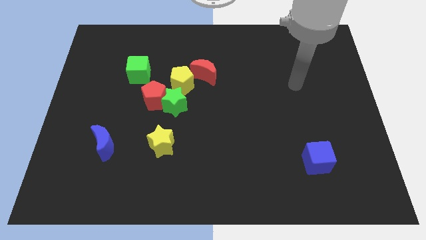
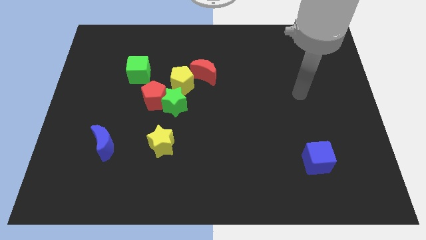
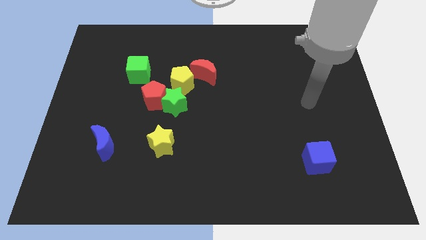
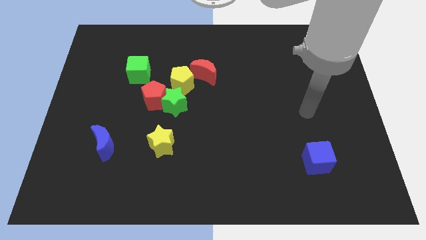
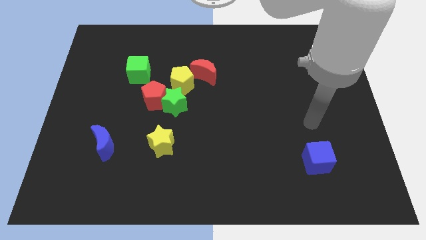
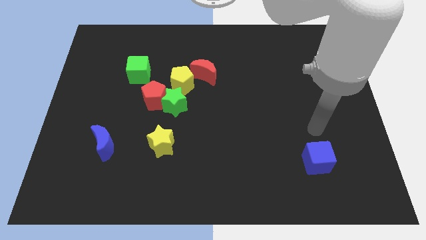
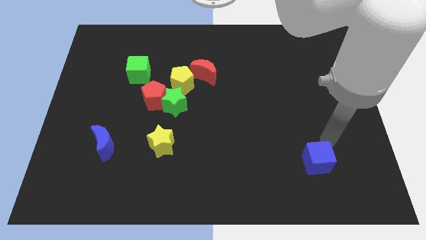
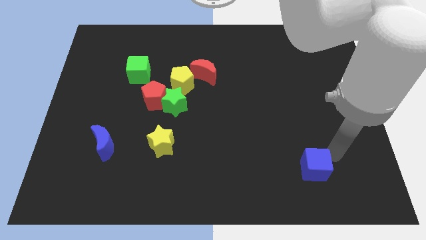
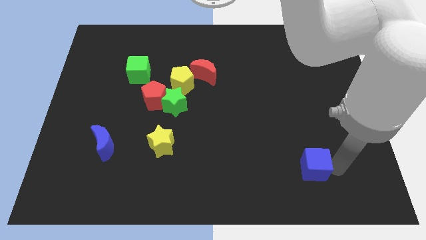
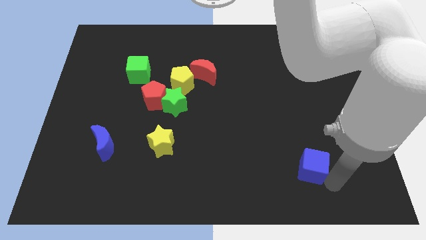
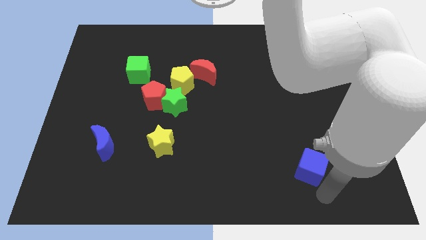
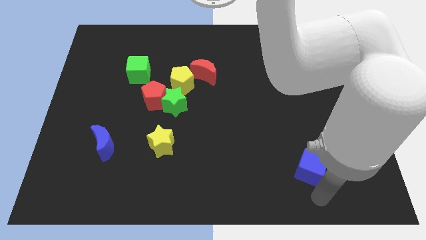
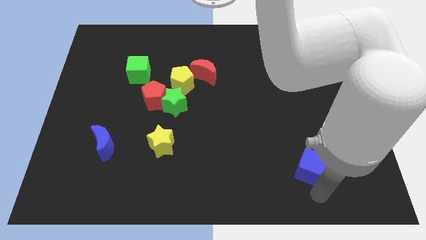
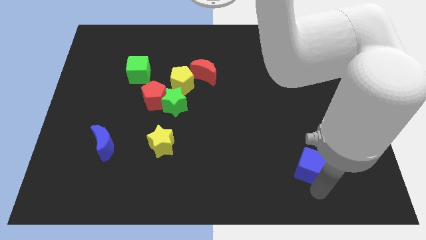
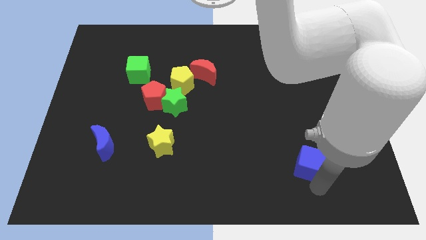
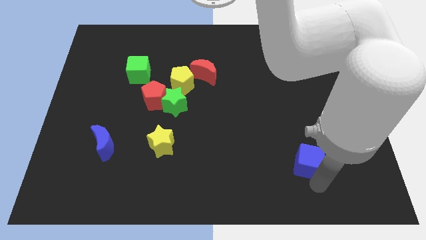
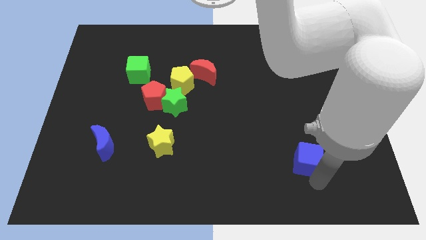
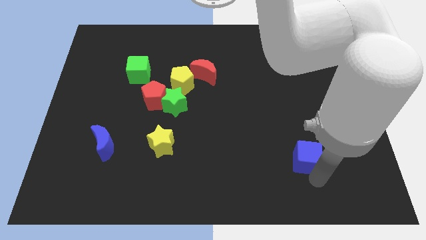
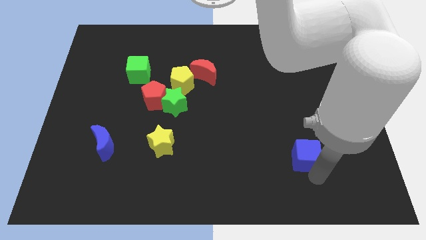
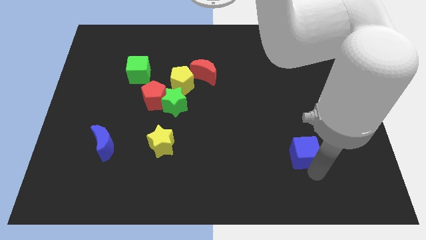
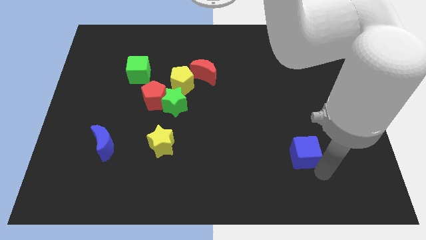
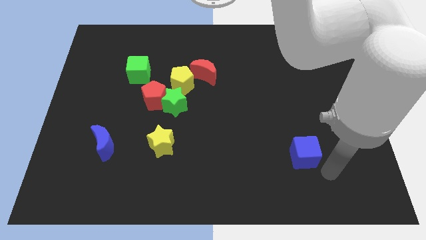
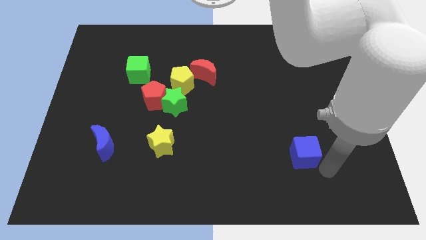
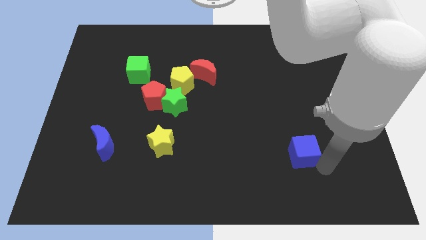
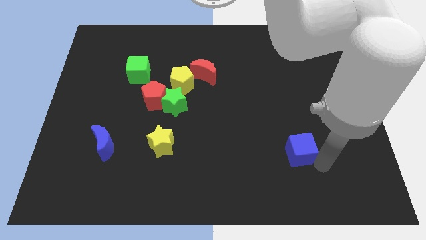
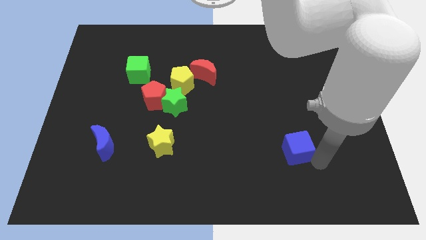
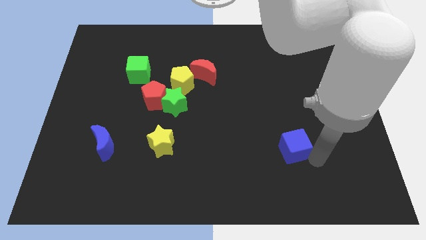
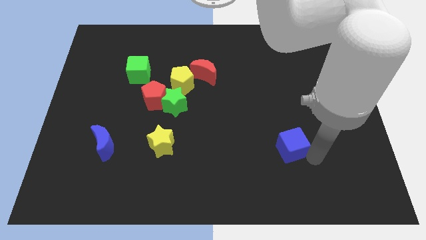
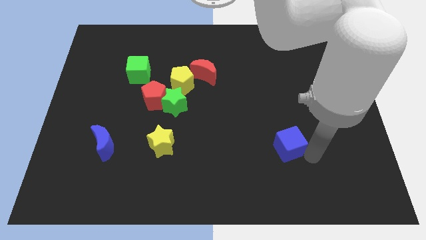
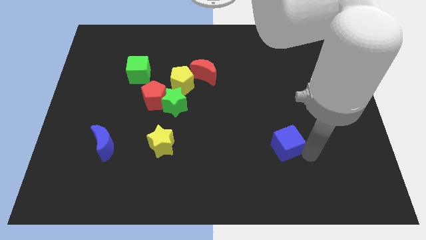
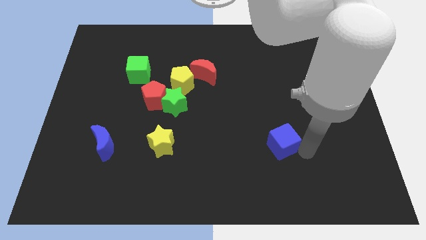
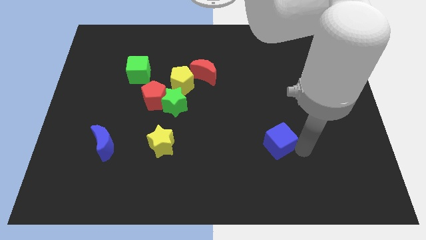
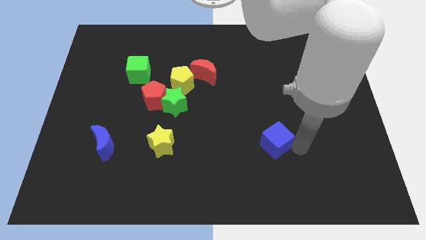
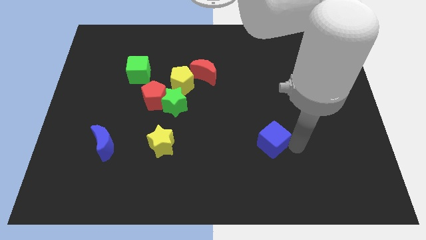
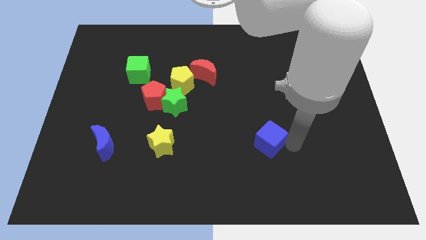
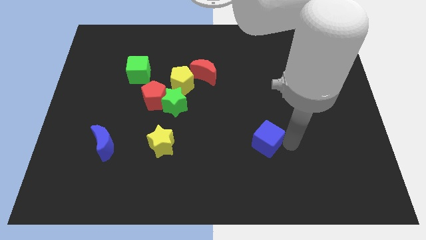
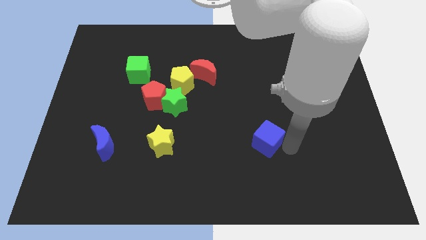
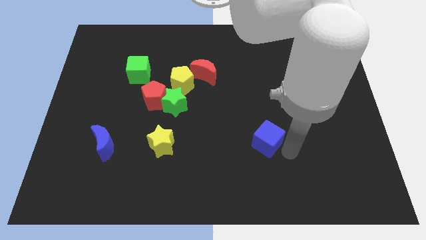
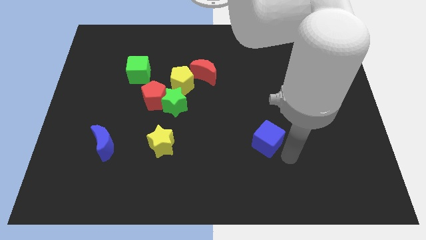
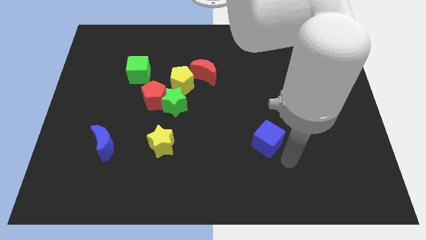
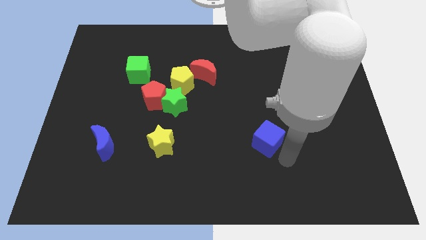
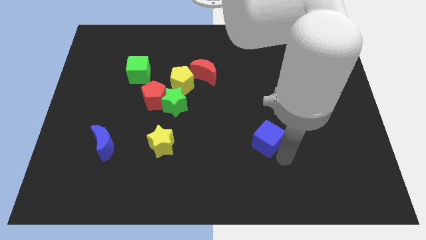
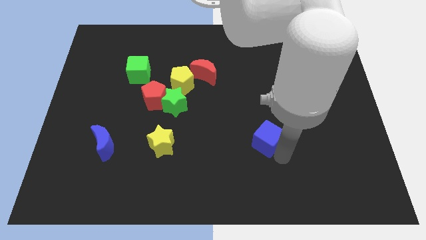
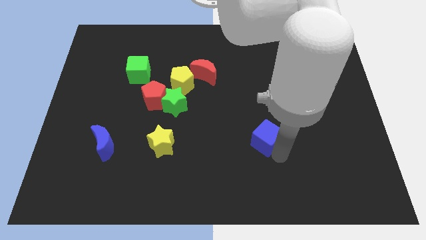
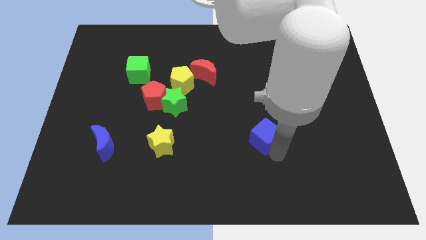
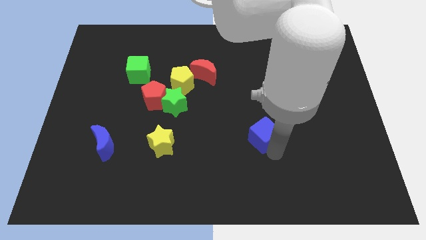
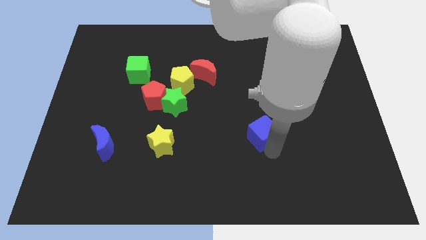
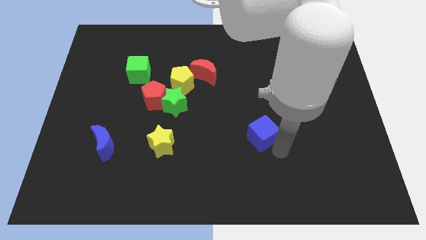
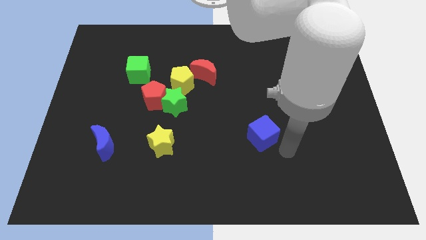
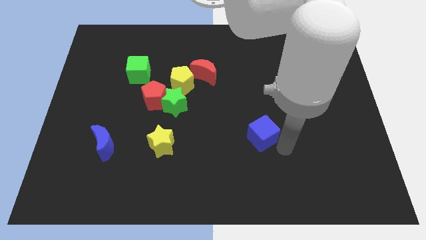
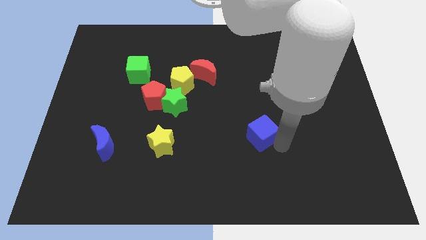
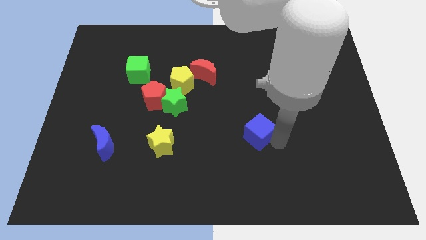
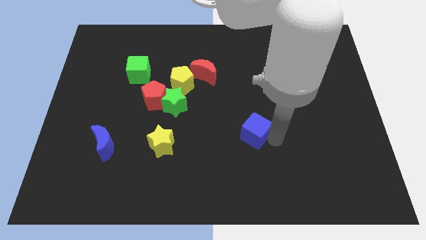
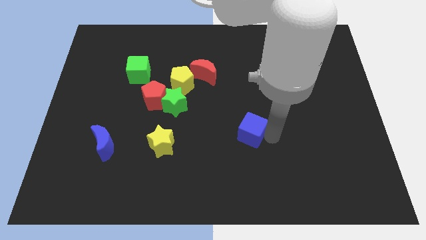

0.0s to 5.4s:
push the blue cube to the middle

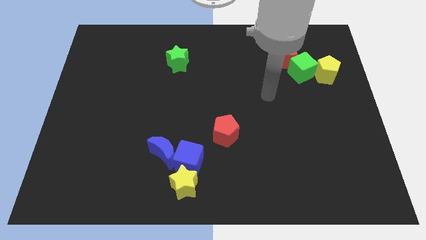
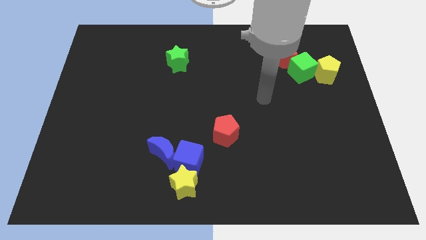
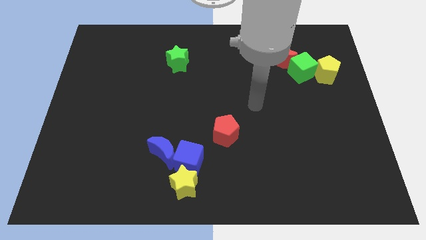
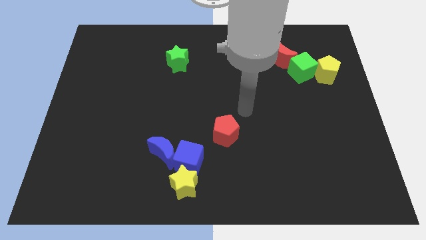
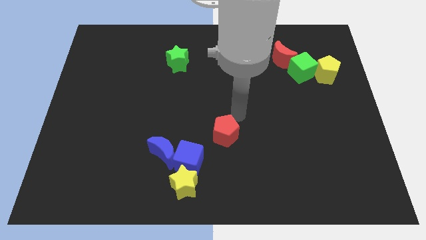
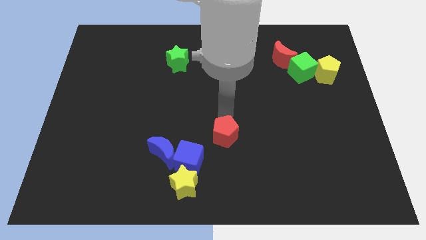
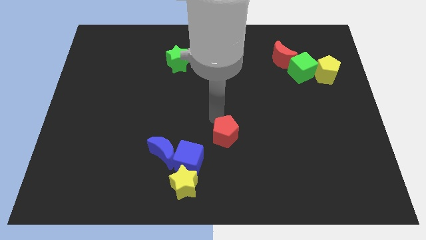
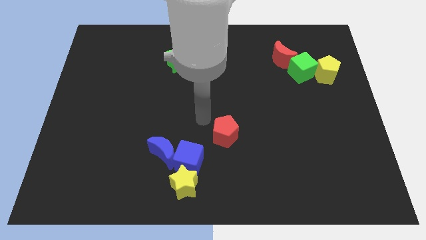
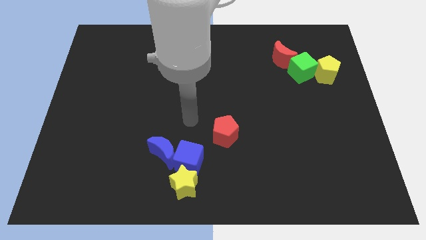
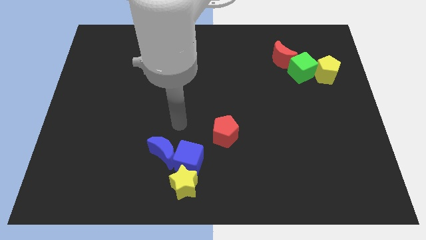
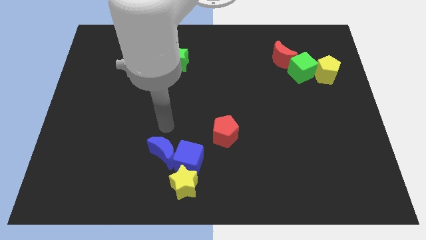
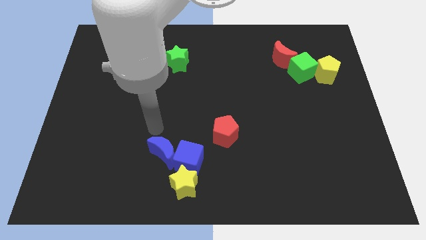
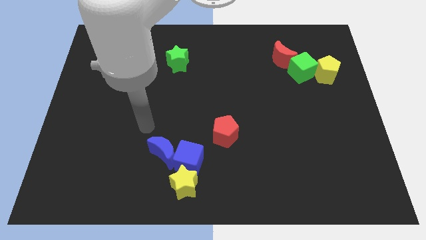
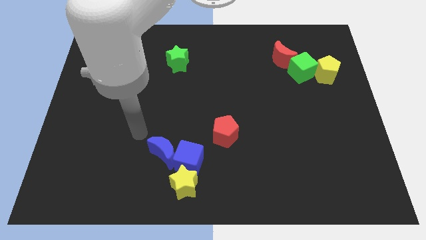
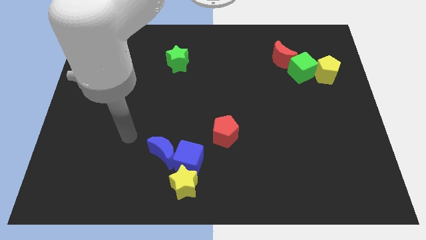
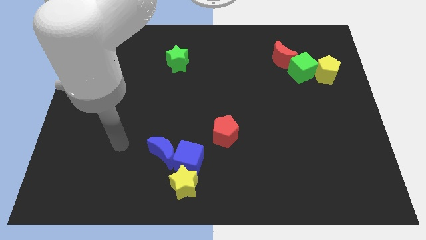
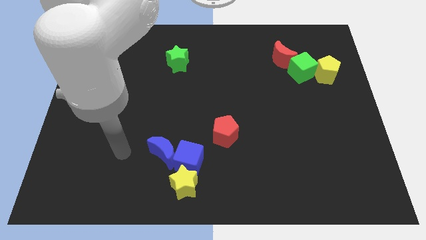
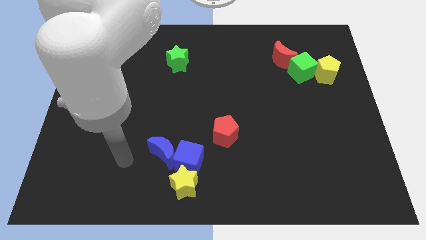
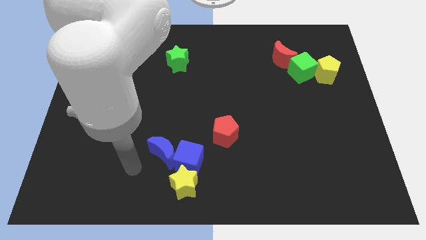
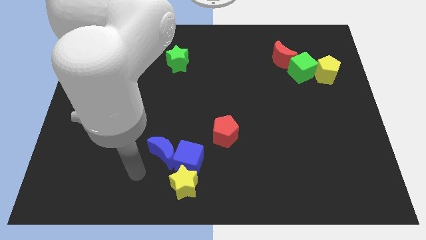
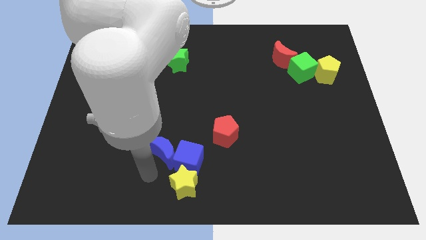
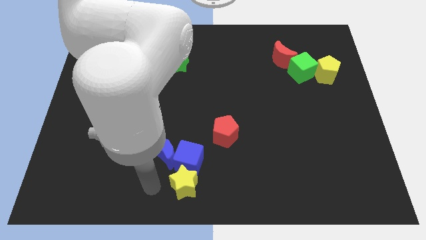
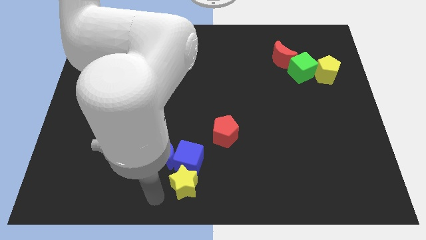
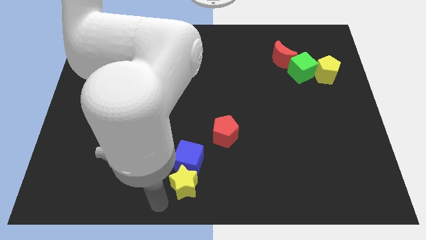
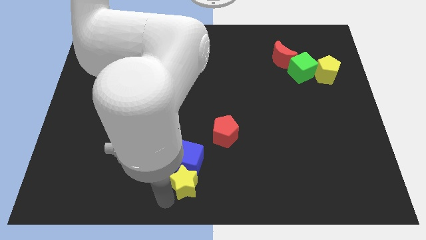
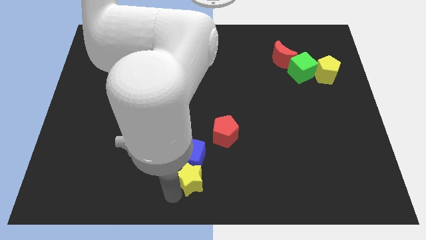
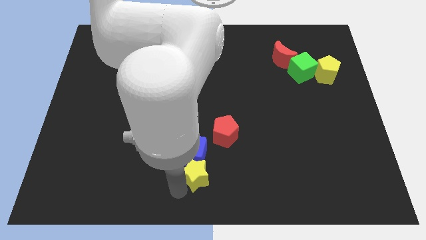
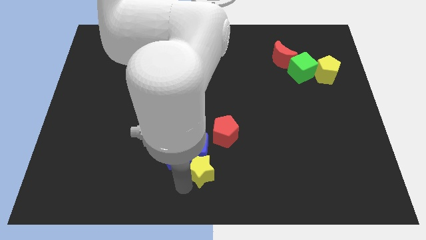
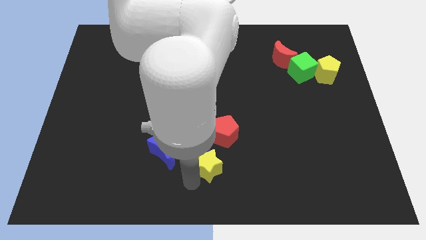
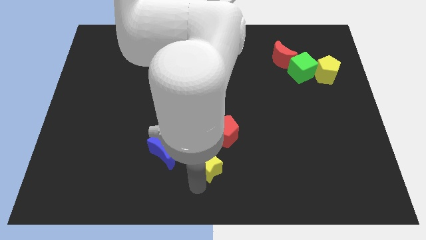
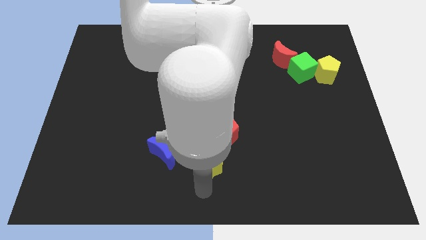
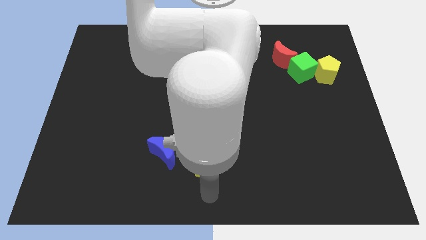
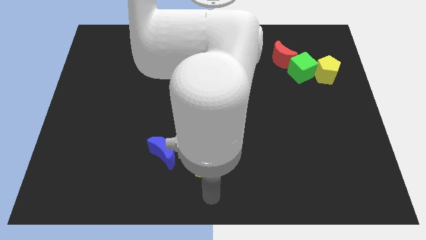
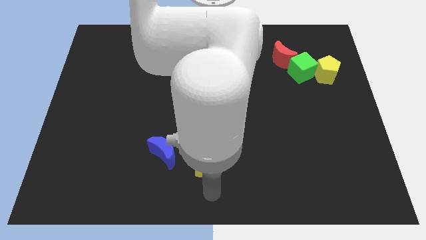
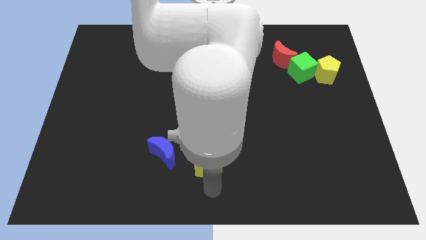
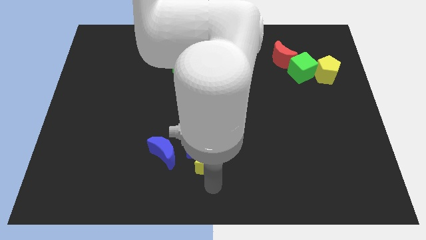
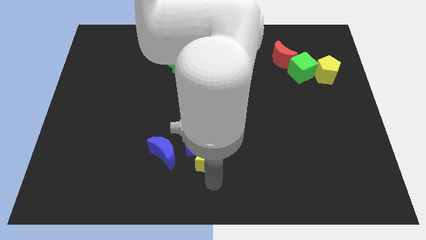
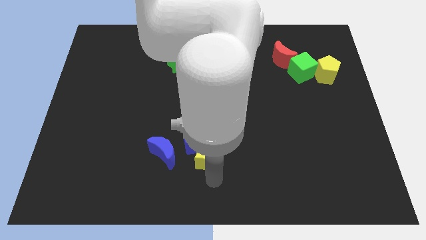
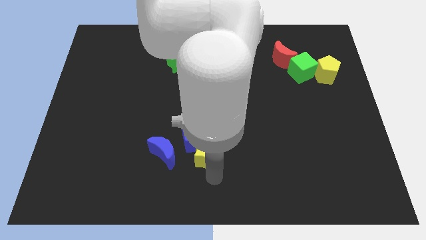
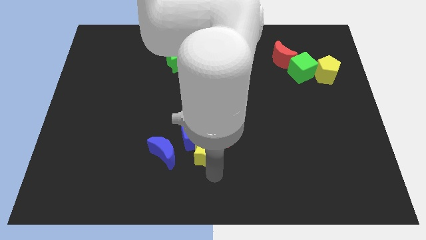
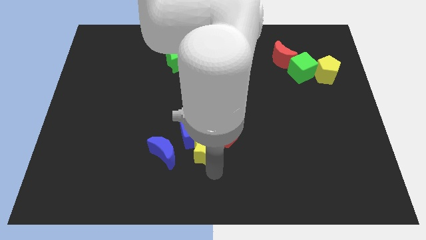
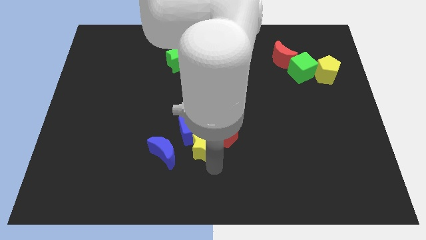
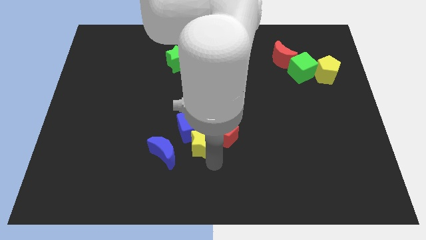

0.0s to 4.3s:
slide the yellow star to the center
